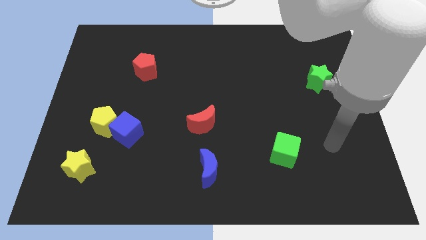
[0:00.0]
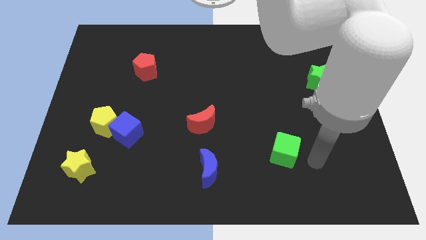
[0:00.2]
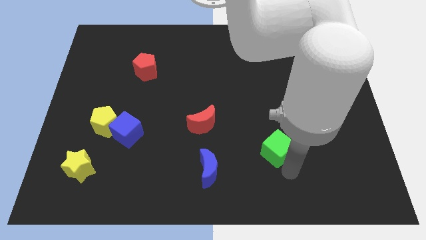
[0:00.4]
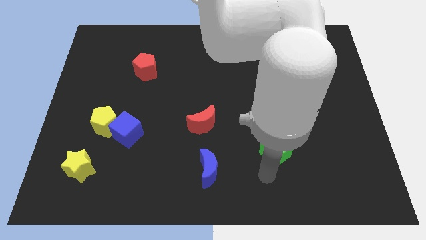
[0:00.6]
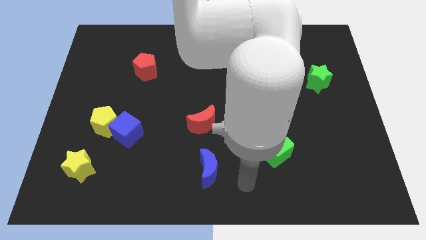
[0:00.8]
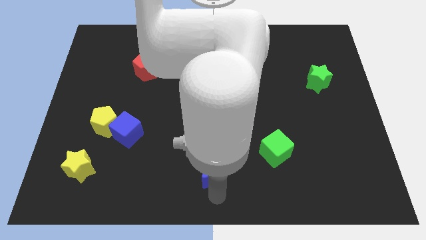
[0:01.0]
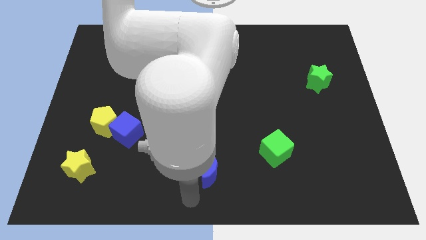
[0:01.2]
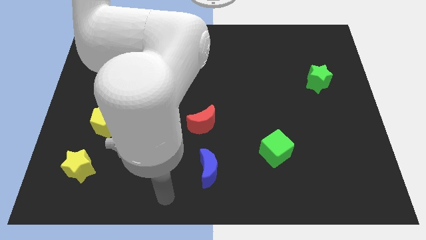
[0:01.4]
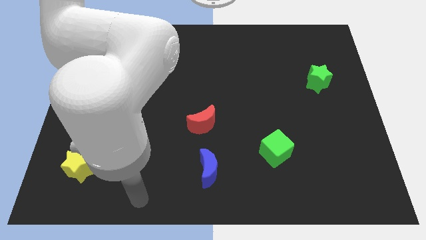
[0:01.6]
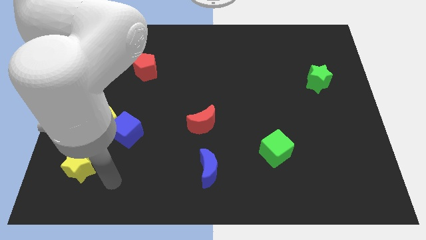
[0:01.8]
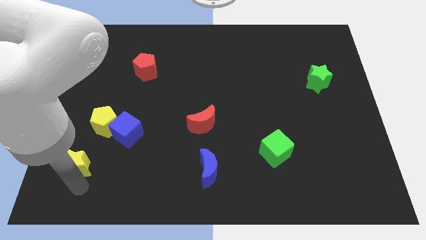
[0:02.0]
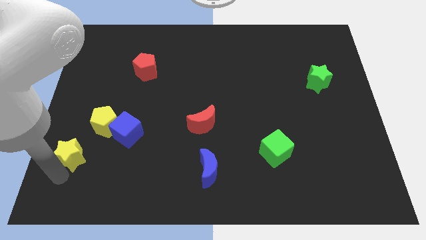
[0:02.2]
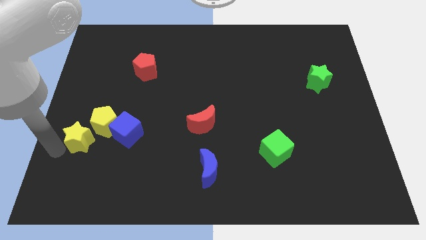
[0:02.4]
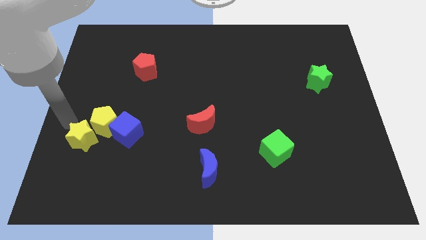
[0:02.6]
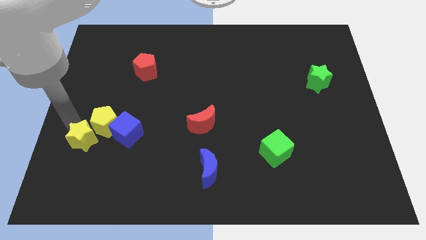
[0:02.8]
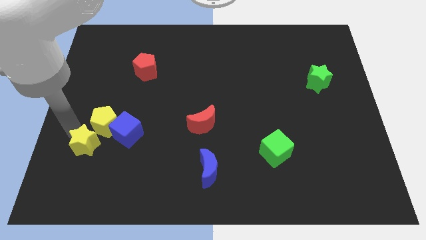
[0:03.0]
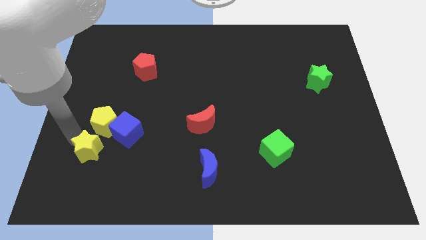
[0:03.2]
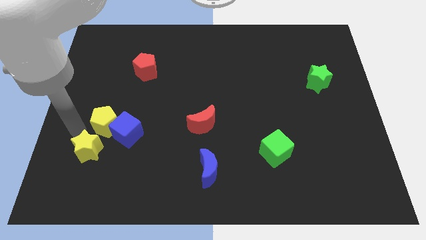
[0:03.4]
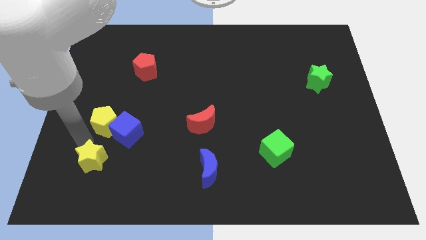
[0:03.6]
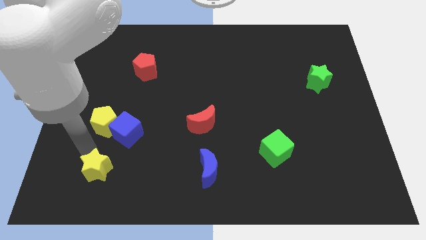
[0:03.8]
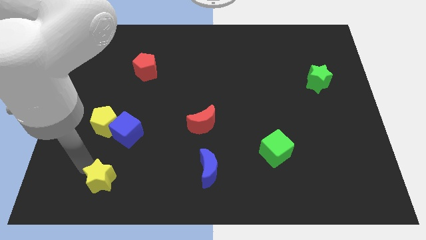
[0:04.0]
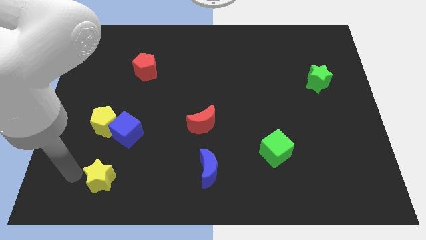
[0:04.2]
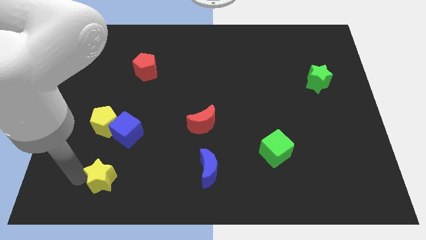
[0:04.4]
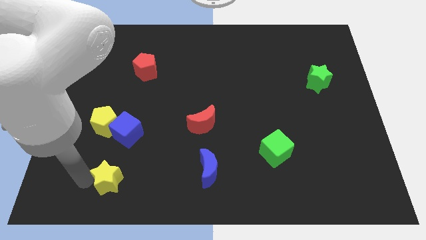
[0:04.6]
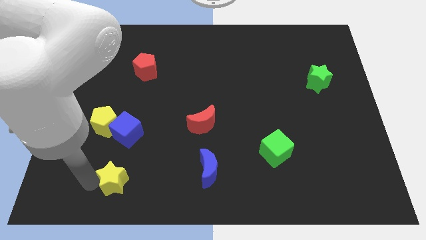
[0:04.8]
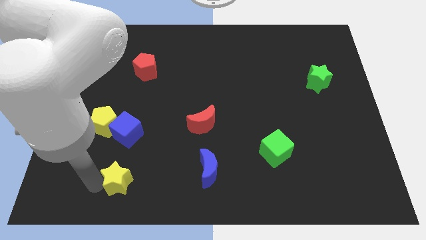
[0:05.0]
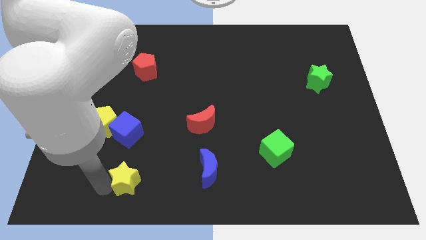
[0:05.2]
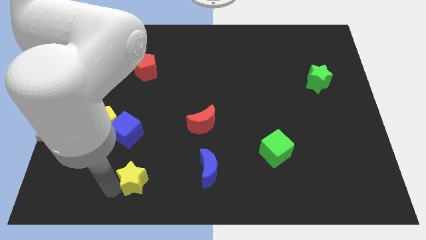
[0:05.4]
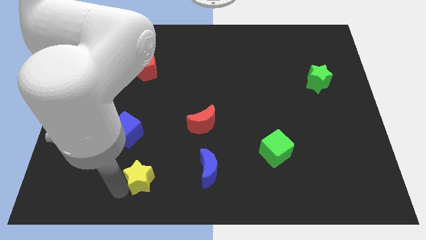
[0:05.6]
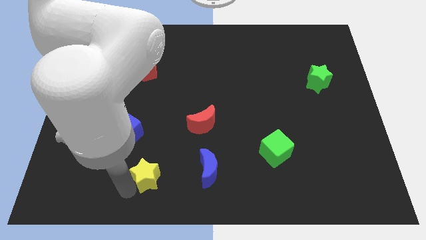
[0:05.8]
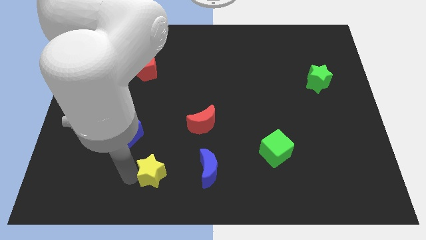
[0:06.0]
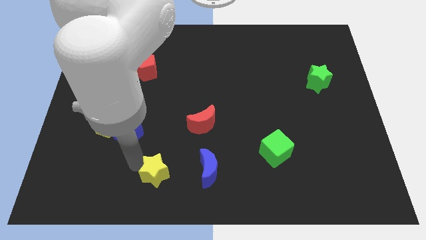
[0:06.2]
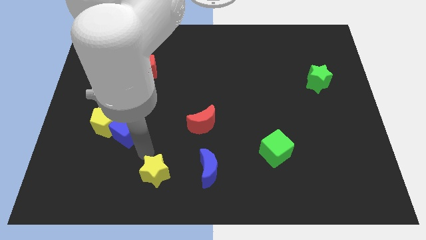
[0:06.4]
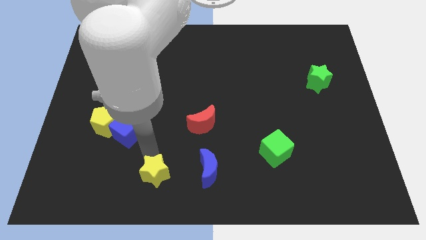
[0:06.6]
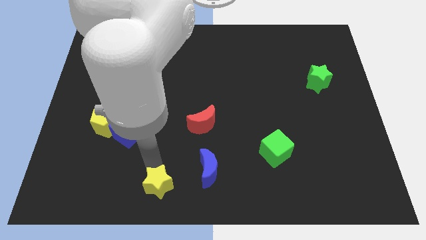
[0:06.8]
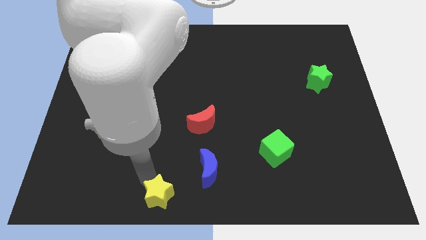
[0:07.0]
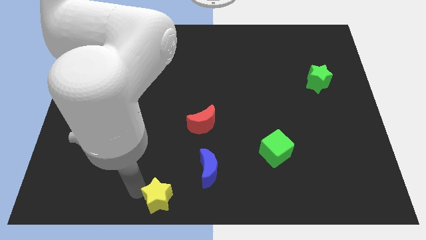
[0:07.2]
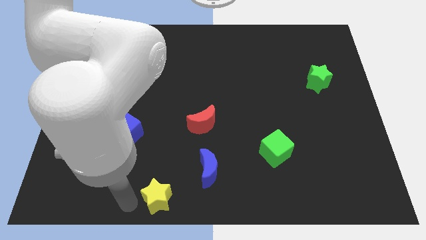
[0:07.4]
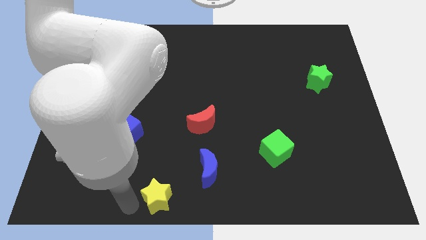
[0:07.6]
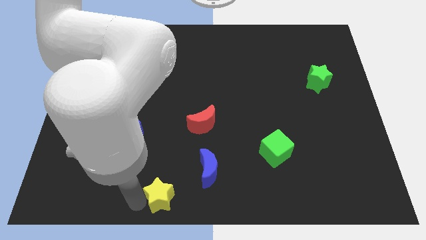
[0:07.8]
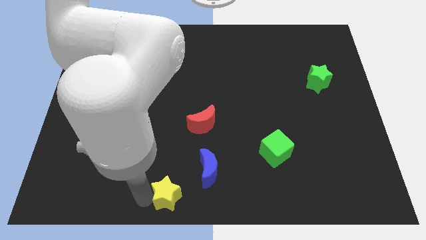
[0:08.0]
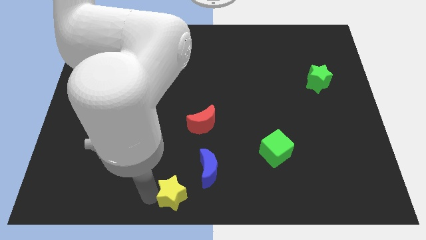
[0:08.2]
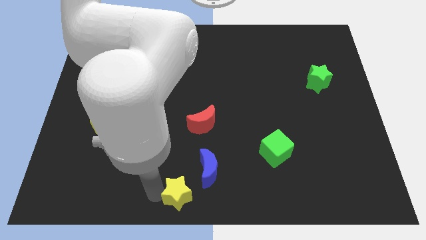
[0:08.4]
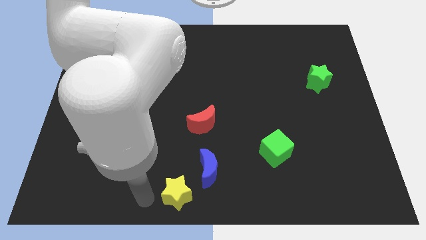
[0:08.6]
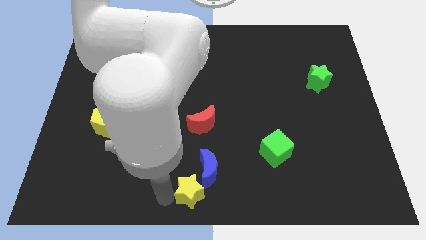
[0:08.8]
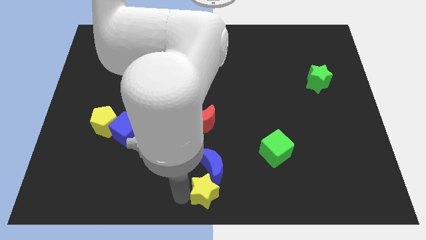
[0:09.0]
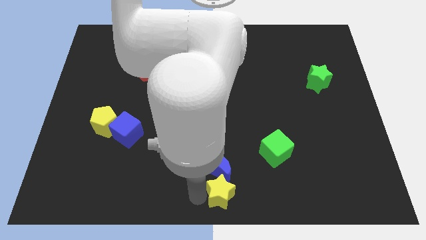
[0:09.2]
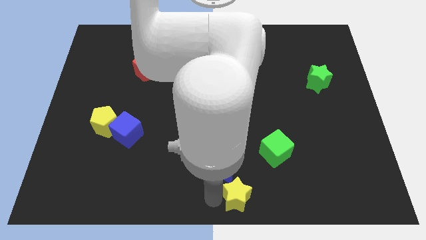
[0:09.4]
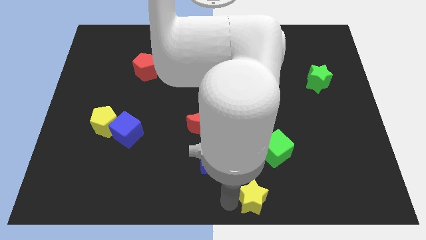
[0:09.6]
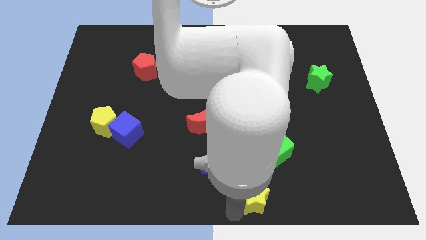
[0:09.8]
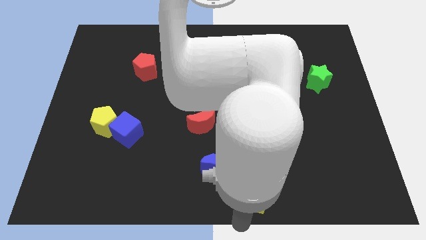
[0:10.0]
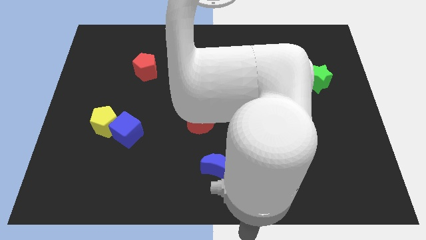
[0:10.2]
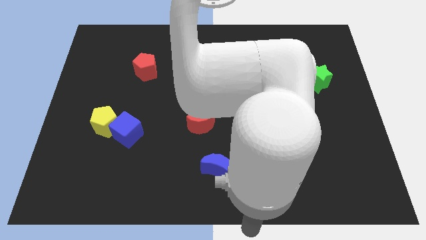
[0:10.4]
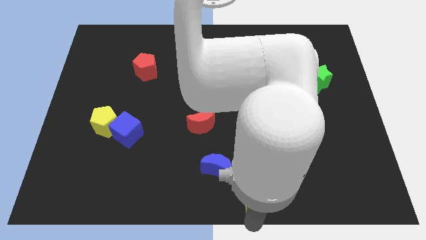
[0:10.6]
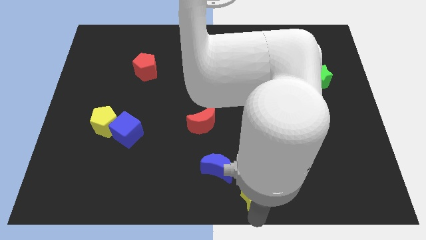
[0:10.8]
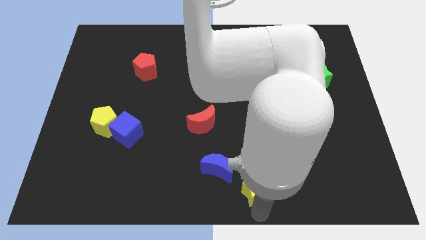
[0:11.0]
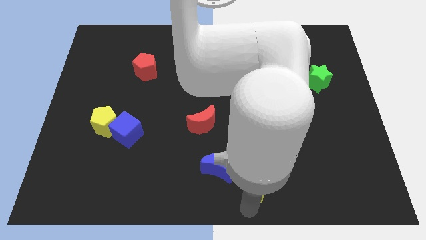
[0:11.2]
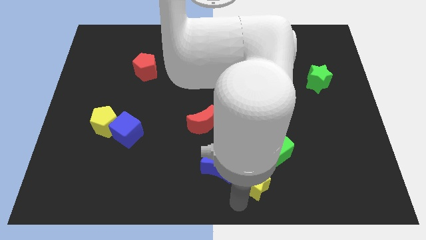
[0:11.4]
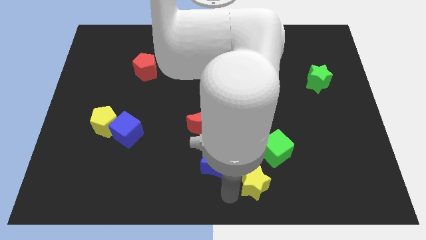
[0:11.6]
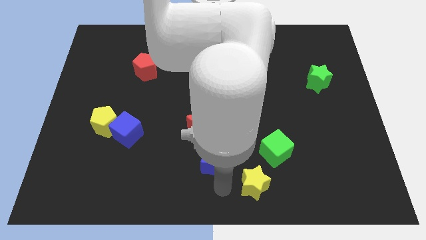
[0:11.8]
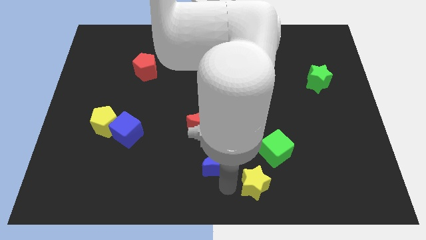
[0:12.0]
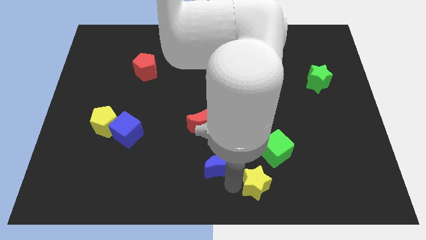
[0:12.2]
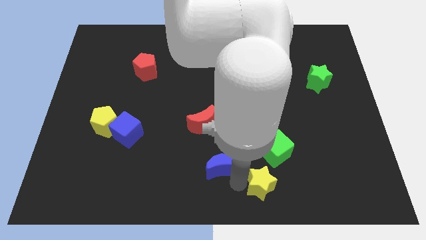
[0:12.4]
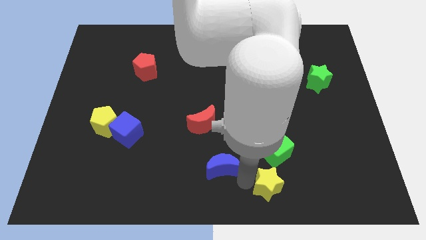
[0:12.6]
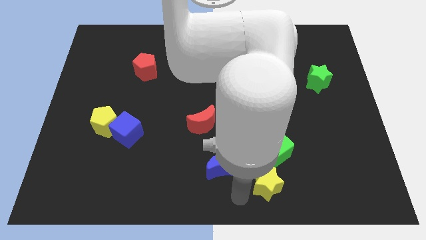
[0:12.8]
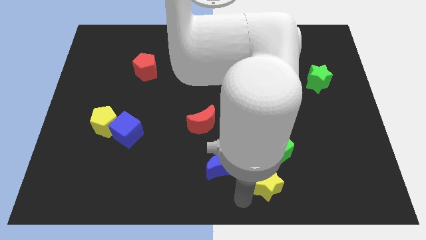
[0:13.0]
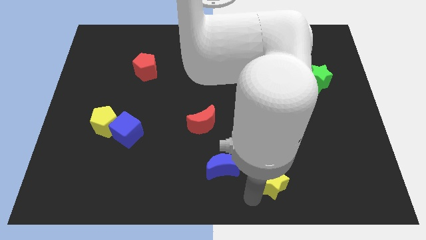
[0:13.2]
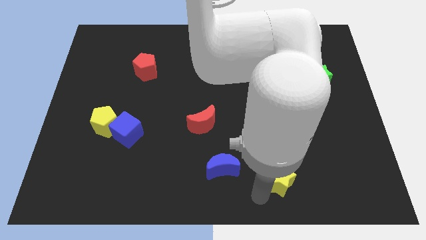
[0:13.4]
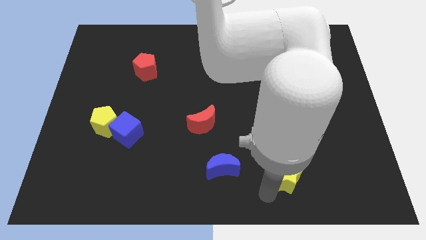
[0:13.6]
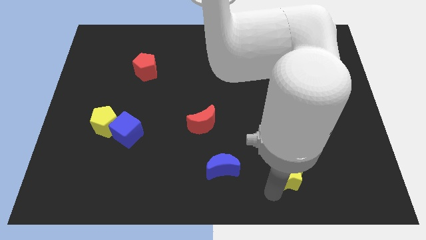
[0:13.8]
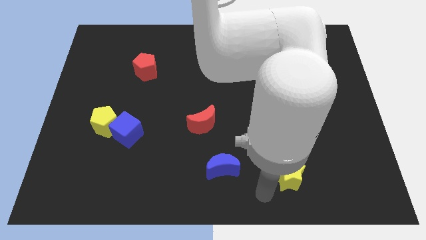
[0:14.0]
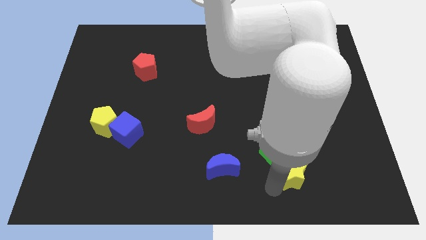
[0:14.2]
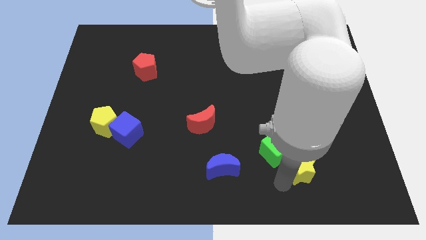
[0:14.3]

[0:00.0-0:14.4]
push the yellow star right of the green cube
